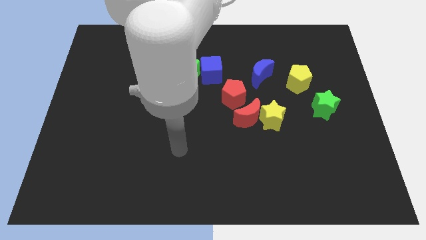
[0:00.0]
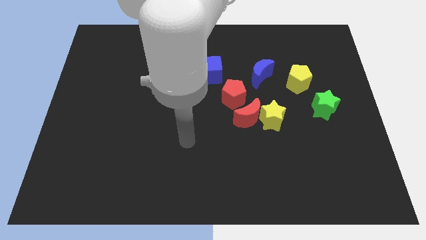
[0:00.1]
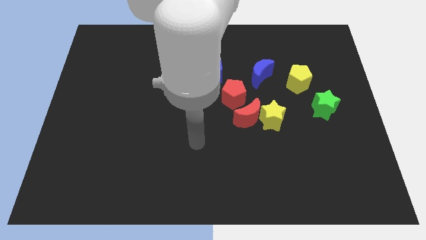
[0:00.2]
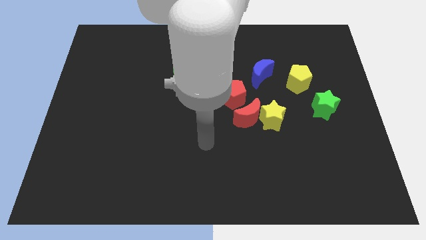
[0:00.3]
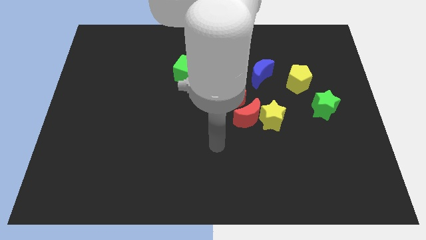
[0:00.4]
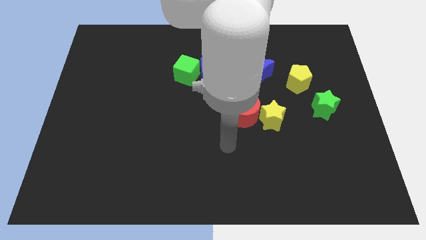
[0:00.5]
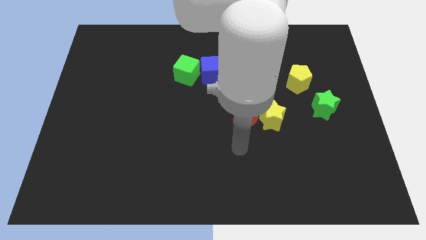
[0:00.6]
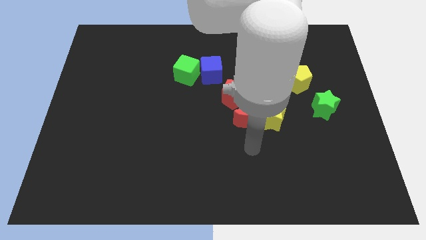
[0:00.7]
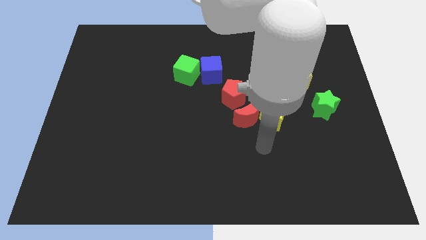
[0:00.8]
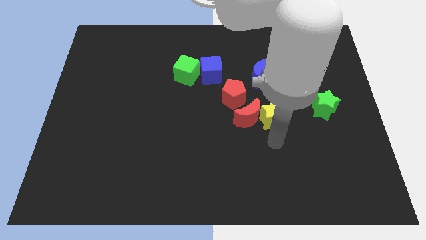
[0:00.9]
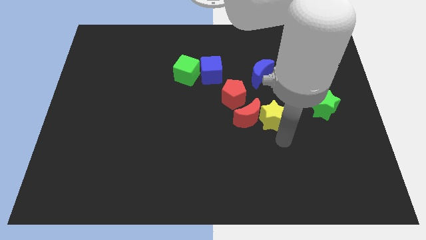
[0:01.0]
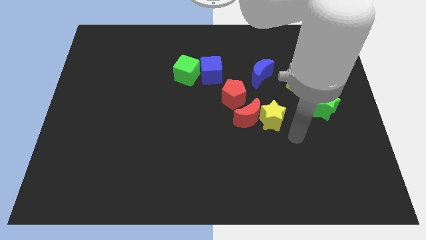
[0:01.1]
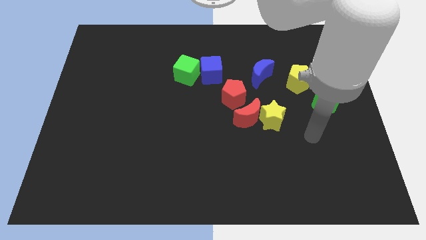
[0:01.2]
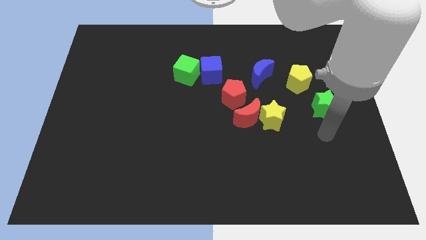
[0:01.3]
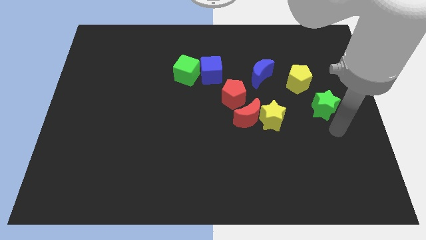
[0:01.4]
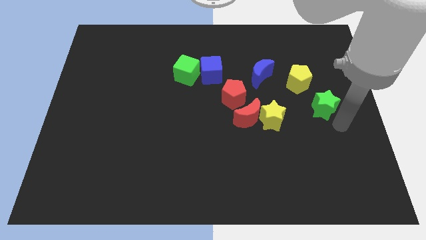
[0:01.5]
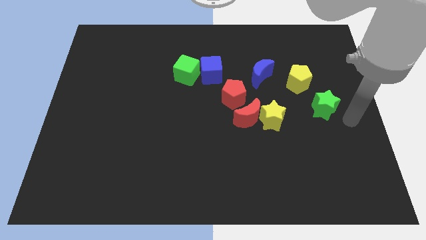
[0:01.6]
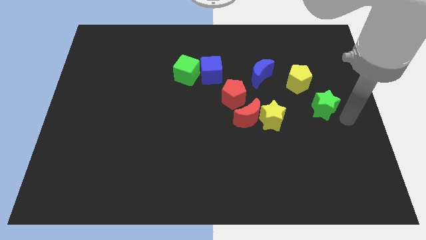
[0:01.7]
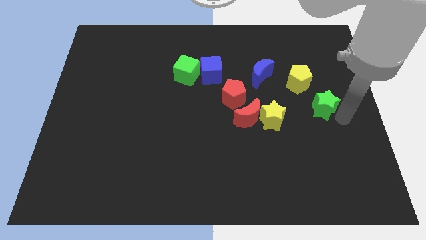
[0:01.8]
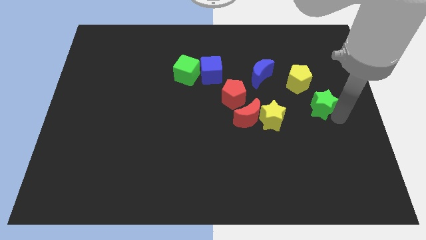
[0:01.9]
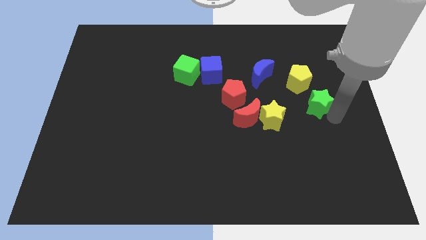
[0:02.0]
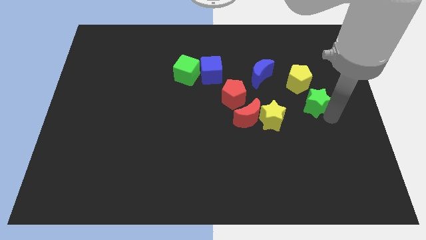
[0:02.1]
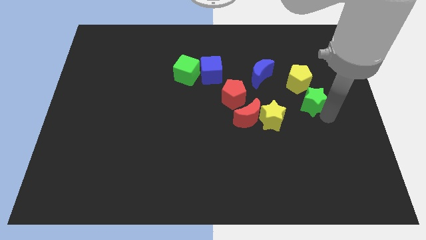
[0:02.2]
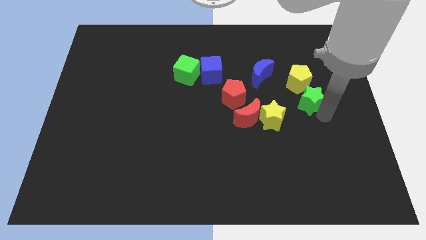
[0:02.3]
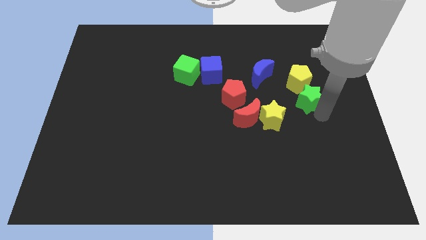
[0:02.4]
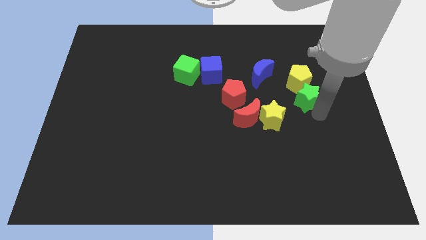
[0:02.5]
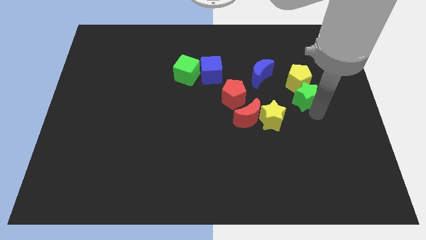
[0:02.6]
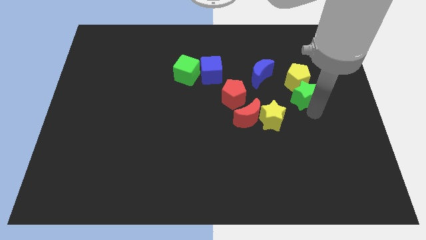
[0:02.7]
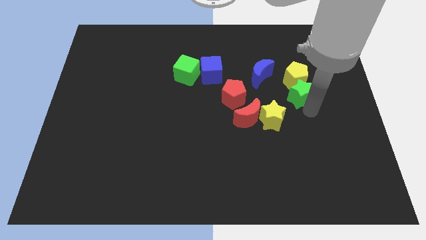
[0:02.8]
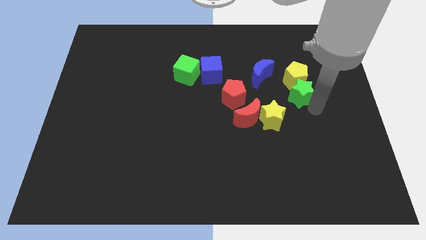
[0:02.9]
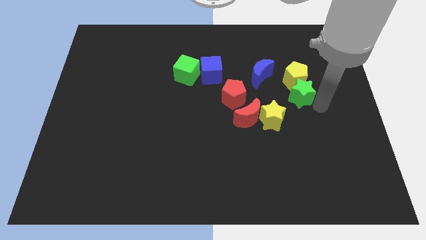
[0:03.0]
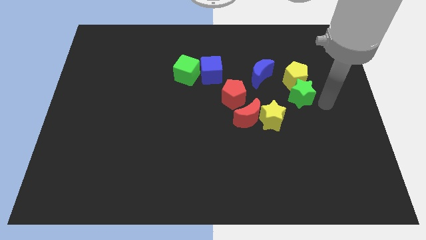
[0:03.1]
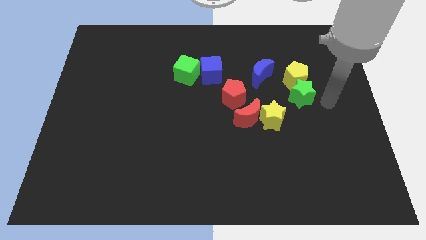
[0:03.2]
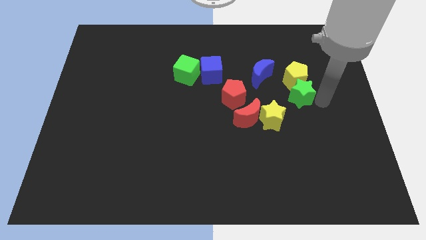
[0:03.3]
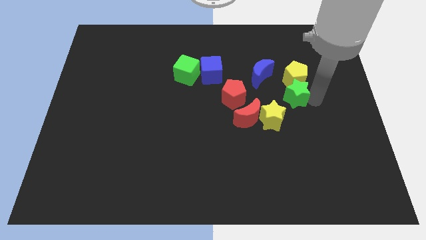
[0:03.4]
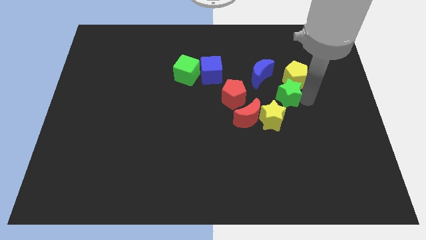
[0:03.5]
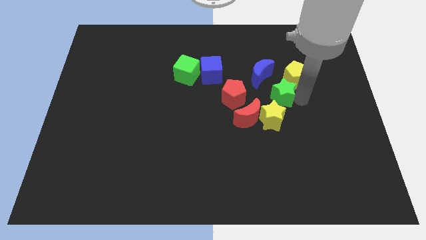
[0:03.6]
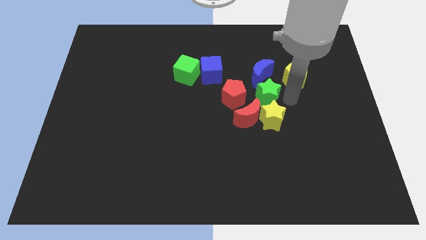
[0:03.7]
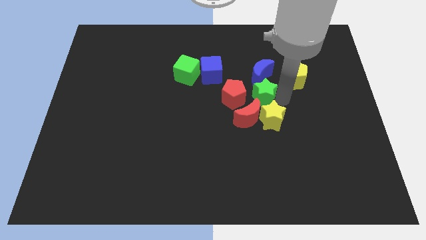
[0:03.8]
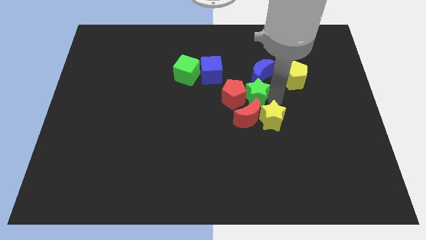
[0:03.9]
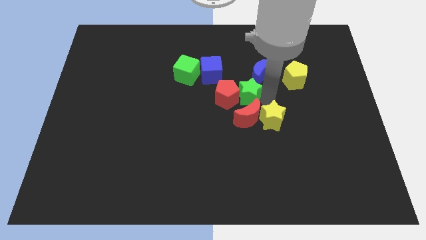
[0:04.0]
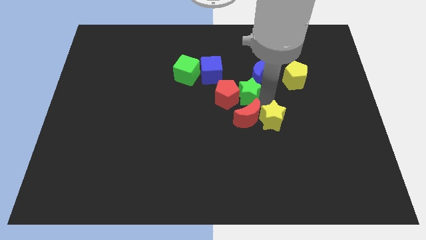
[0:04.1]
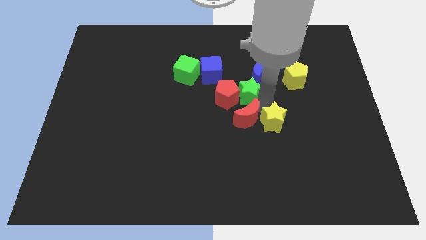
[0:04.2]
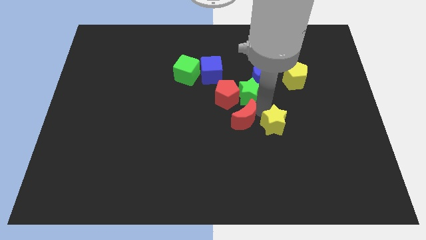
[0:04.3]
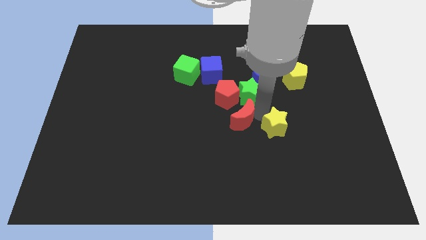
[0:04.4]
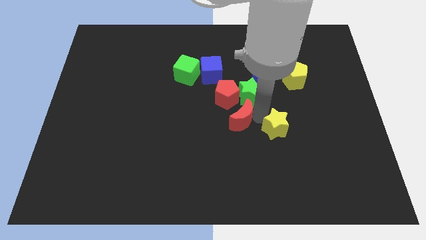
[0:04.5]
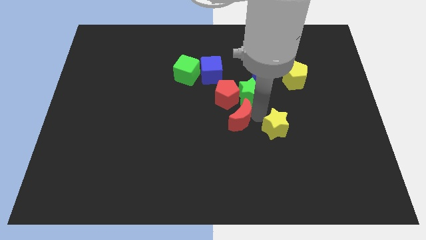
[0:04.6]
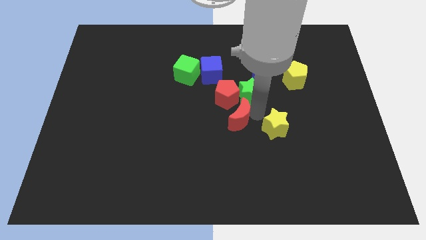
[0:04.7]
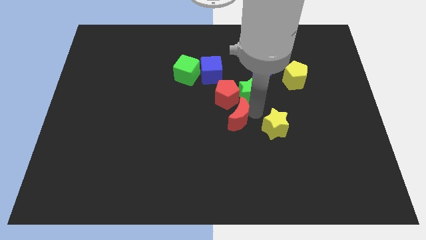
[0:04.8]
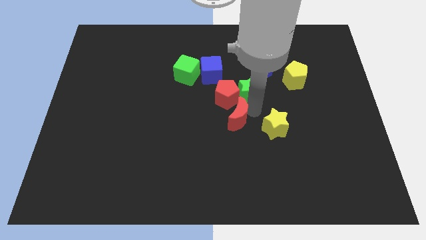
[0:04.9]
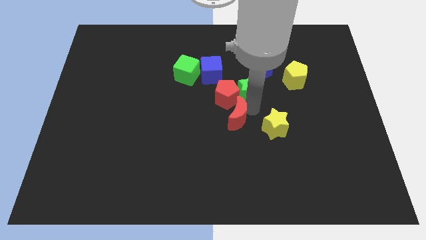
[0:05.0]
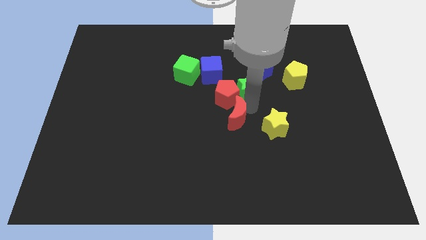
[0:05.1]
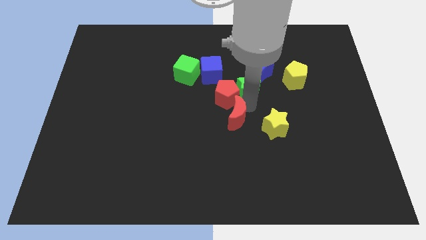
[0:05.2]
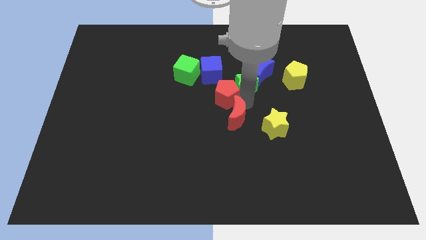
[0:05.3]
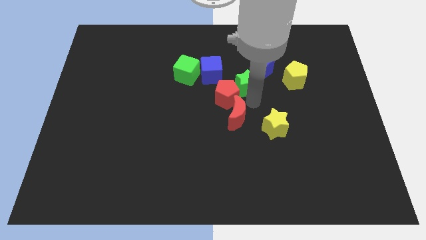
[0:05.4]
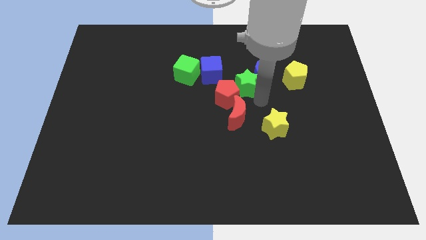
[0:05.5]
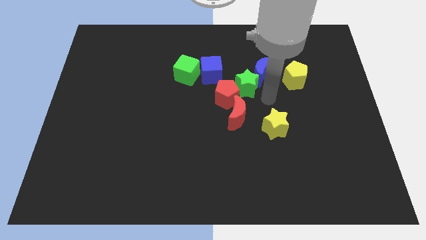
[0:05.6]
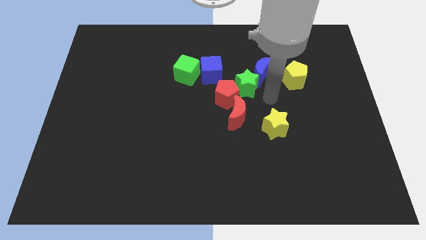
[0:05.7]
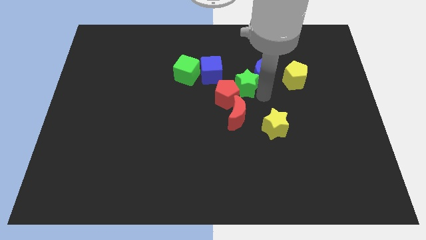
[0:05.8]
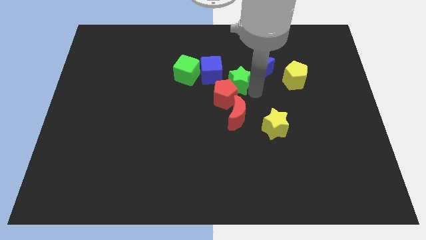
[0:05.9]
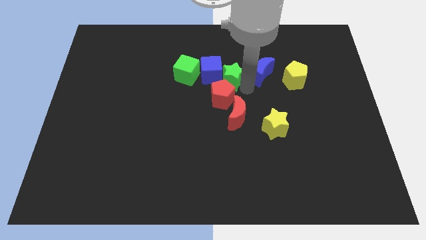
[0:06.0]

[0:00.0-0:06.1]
move the green star towards the blue cube

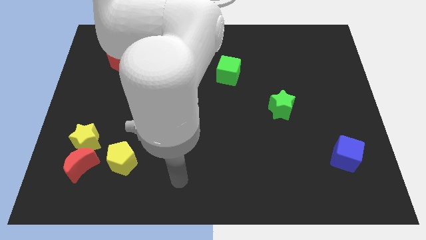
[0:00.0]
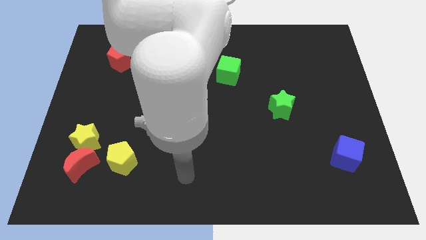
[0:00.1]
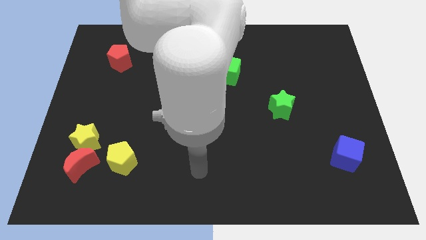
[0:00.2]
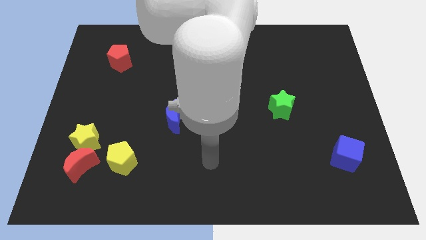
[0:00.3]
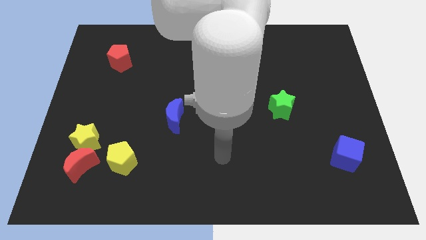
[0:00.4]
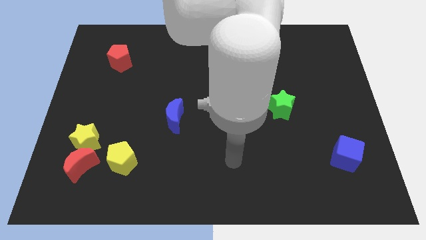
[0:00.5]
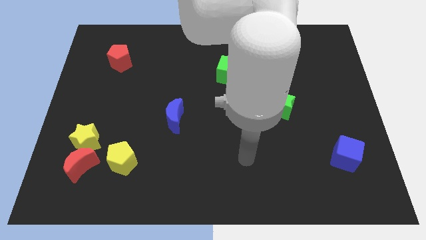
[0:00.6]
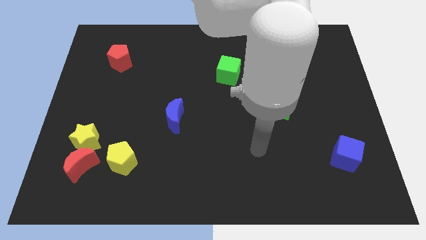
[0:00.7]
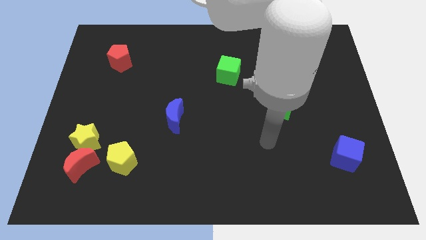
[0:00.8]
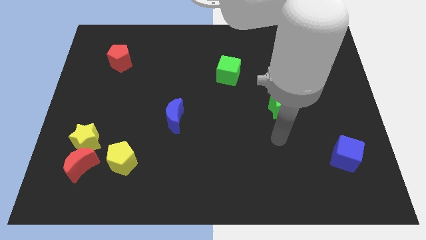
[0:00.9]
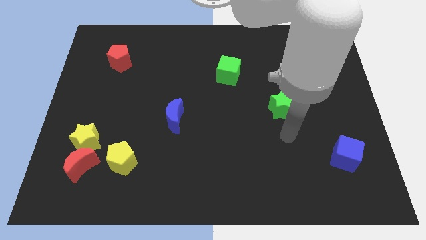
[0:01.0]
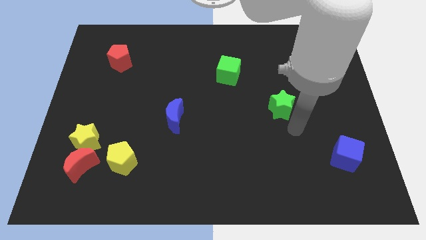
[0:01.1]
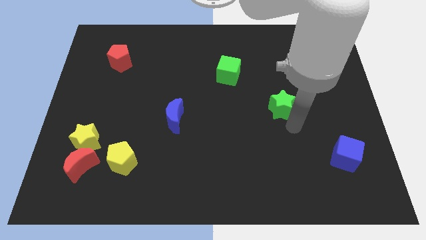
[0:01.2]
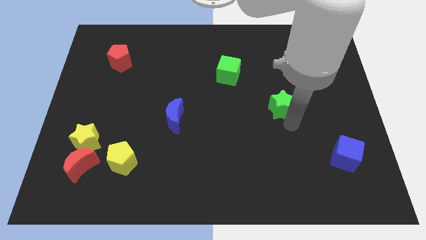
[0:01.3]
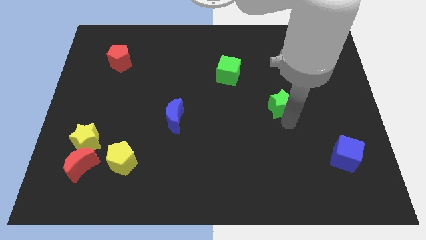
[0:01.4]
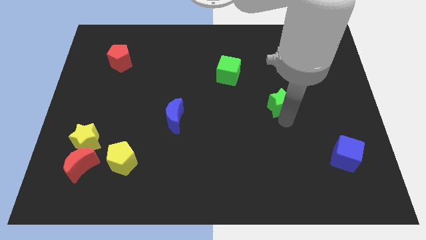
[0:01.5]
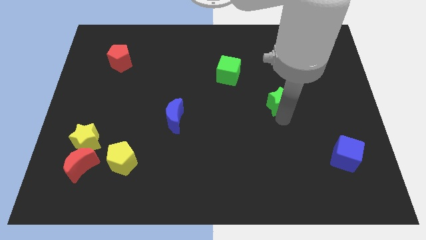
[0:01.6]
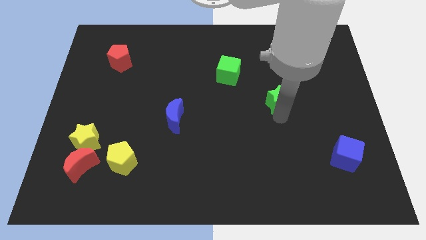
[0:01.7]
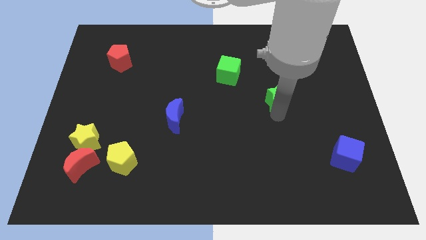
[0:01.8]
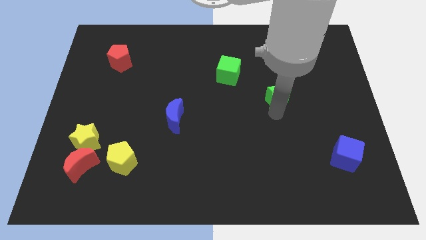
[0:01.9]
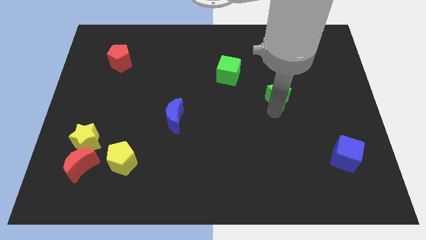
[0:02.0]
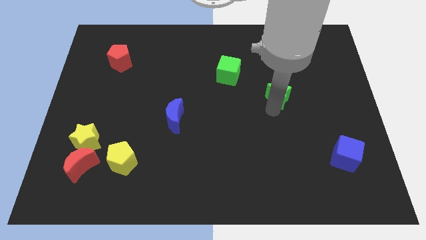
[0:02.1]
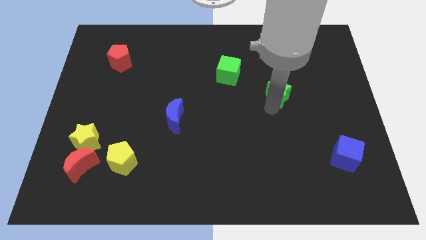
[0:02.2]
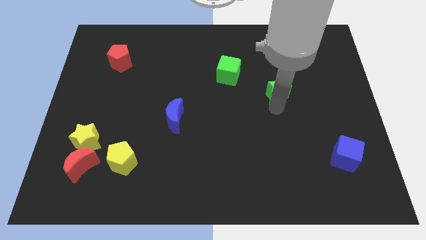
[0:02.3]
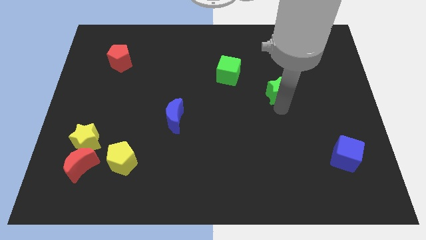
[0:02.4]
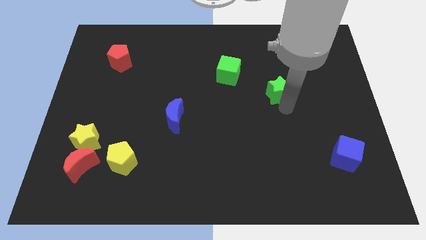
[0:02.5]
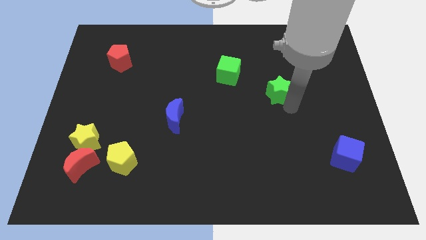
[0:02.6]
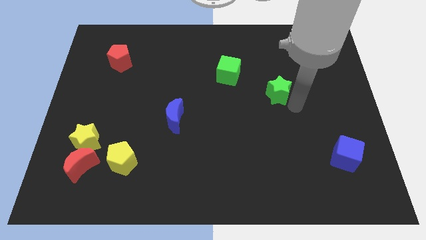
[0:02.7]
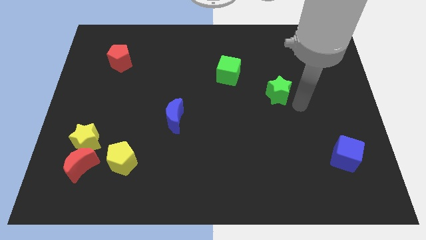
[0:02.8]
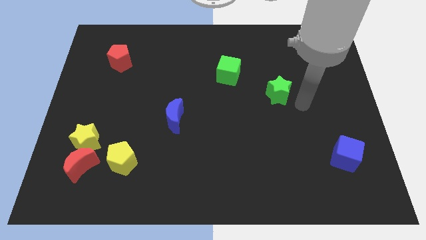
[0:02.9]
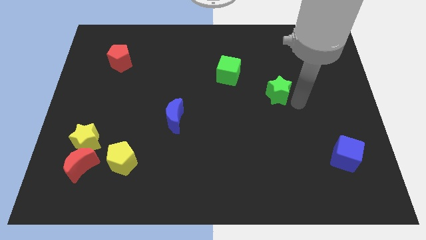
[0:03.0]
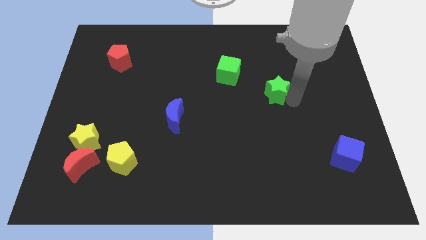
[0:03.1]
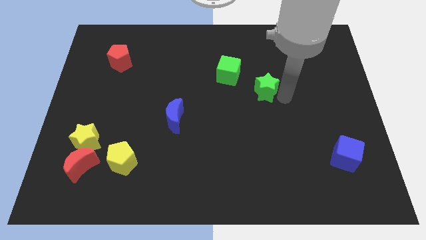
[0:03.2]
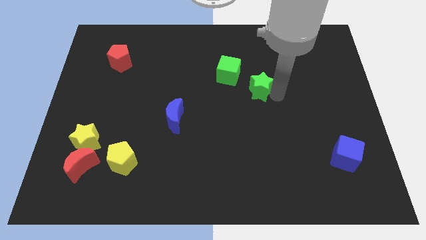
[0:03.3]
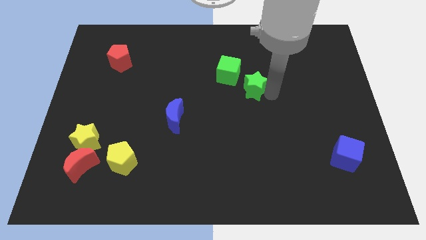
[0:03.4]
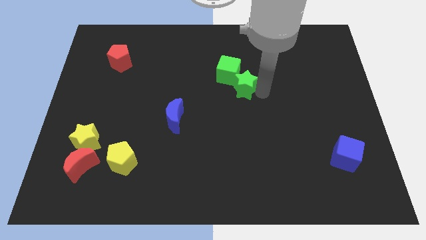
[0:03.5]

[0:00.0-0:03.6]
push the green star next to the green cube
